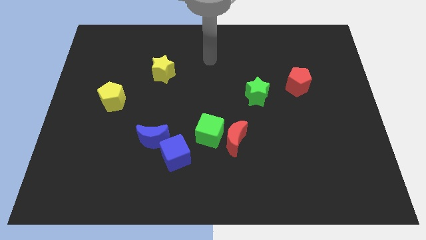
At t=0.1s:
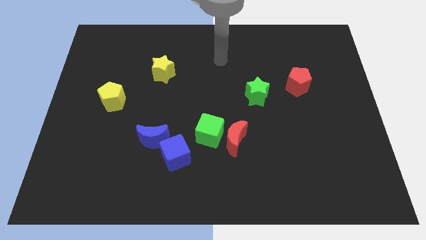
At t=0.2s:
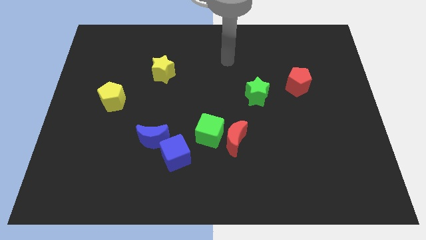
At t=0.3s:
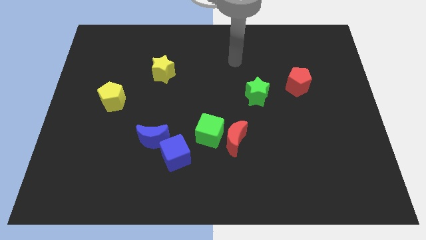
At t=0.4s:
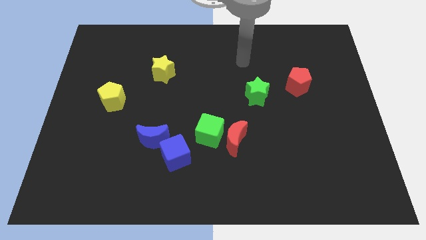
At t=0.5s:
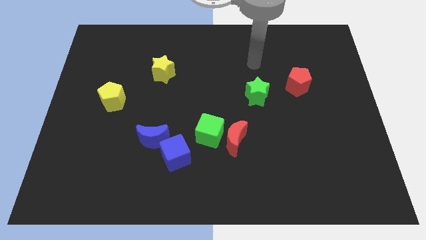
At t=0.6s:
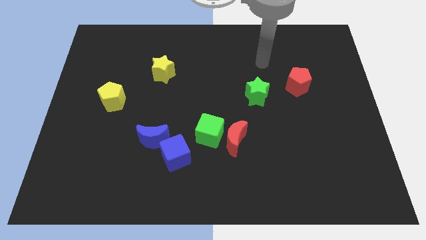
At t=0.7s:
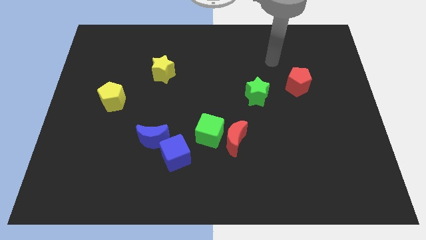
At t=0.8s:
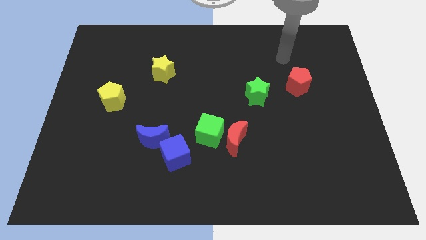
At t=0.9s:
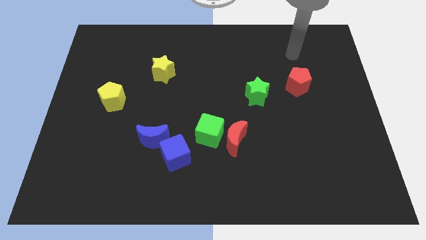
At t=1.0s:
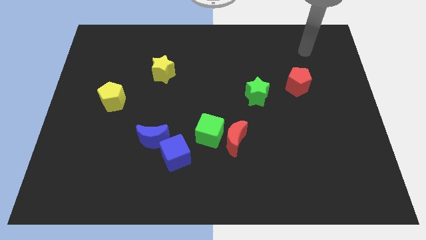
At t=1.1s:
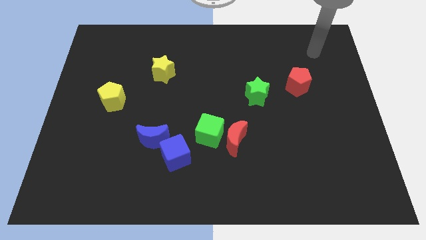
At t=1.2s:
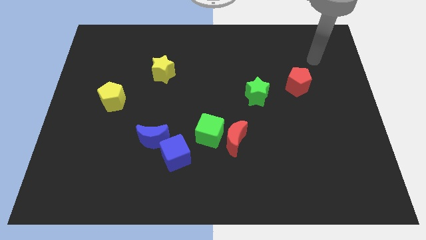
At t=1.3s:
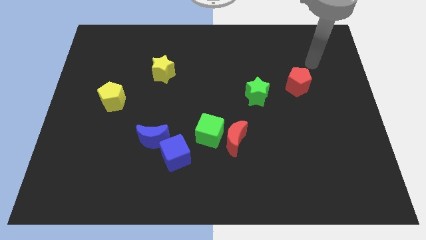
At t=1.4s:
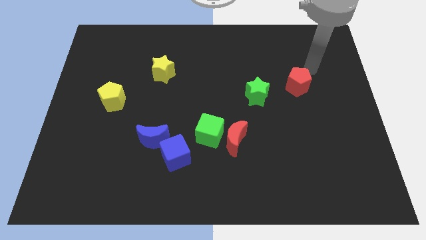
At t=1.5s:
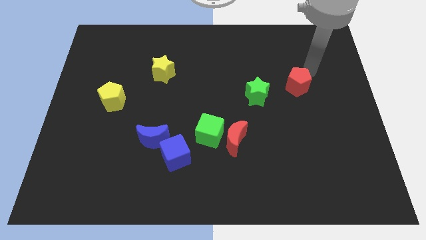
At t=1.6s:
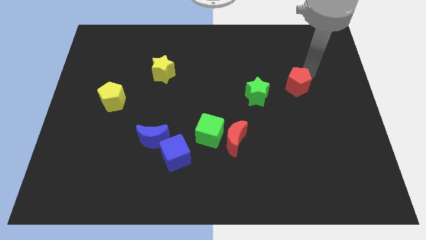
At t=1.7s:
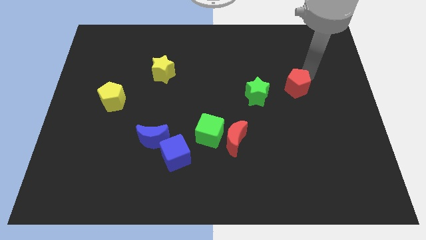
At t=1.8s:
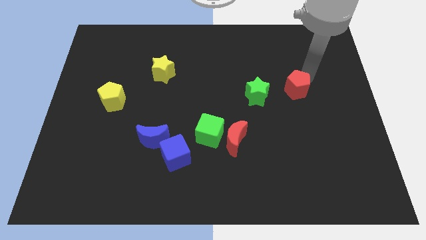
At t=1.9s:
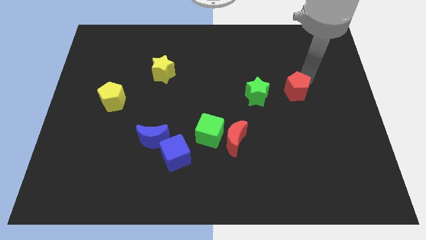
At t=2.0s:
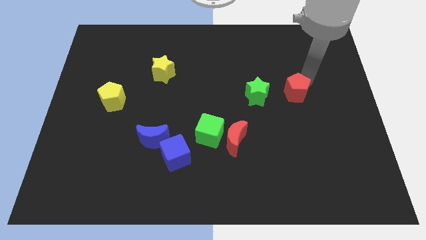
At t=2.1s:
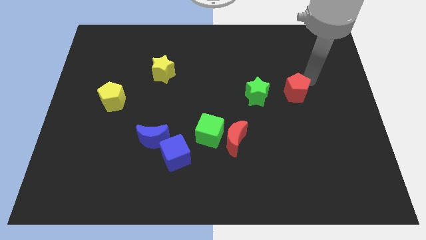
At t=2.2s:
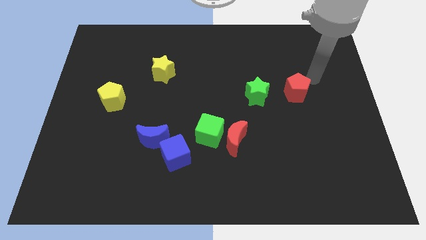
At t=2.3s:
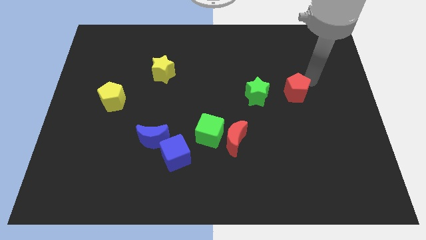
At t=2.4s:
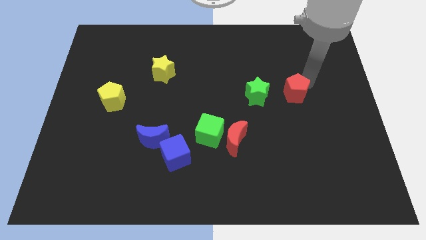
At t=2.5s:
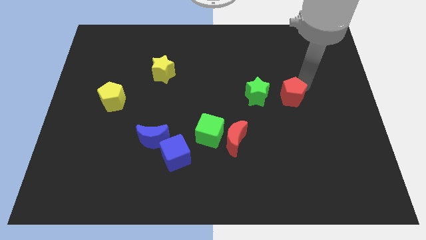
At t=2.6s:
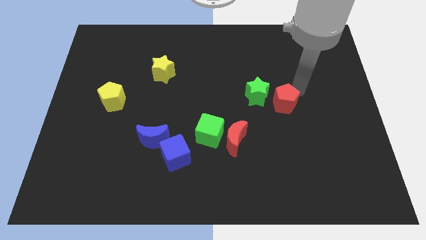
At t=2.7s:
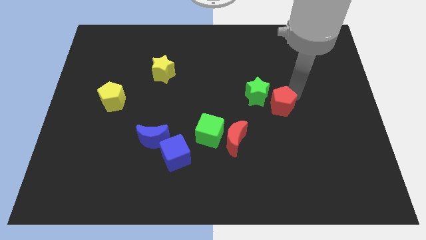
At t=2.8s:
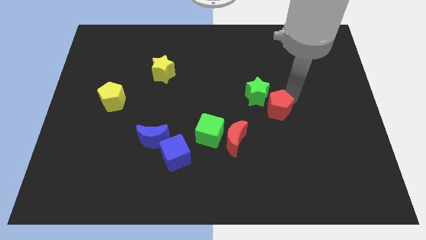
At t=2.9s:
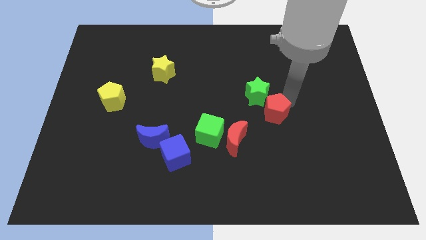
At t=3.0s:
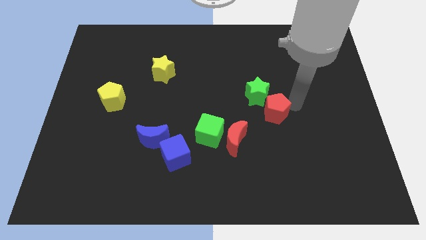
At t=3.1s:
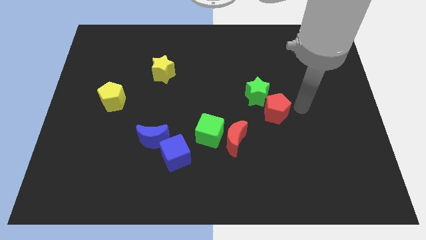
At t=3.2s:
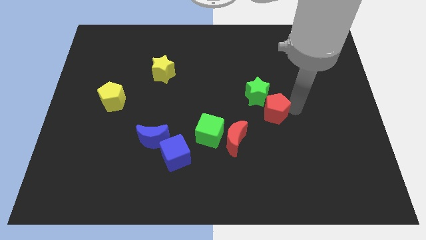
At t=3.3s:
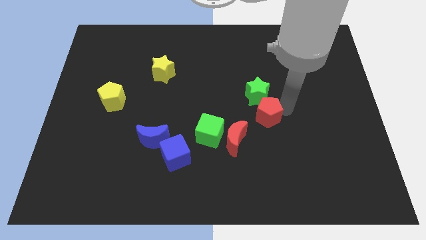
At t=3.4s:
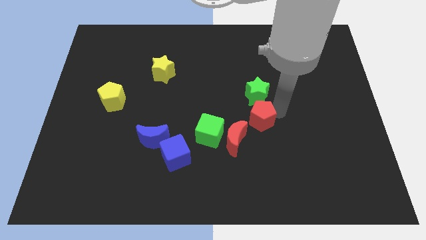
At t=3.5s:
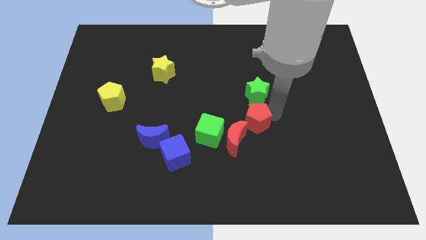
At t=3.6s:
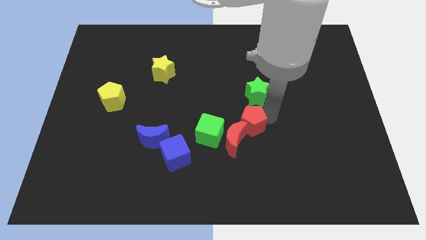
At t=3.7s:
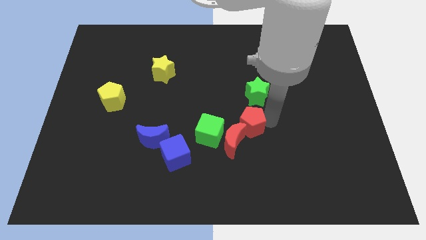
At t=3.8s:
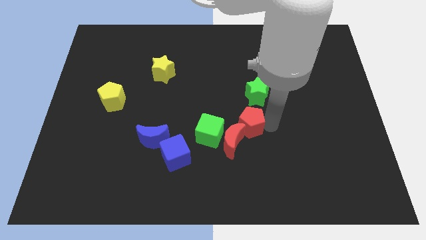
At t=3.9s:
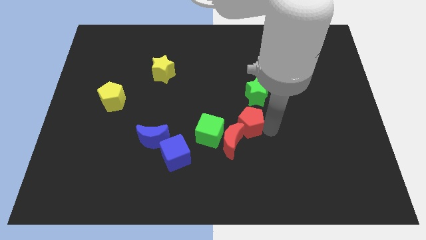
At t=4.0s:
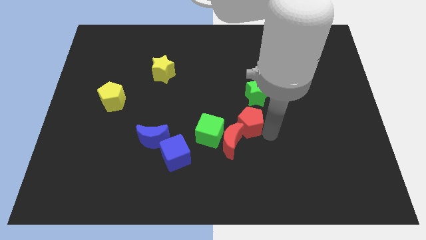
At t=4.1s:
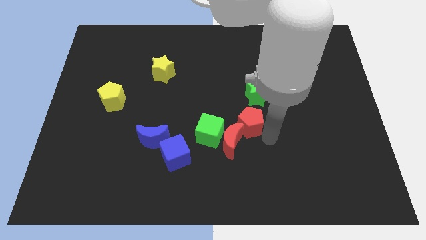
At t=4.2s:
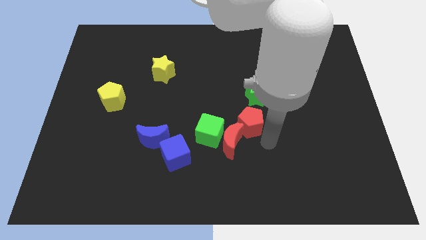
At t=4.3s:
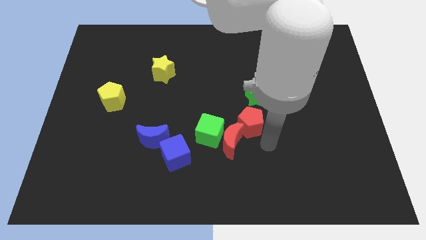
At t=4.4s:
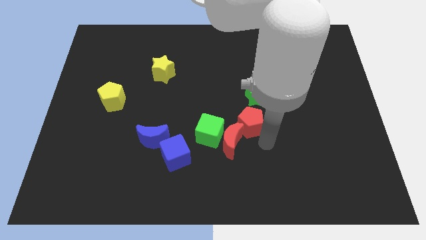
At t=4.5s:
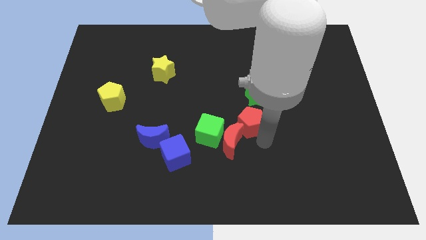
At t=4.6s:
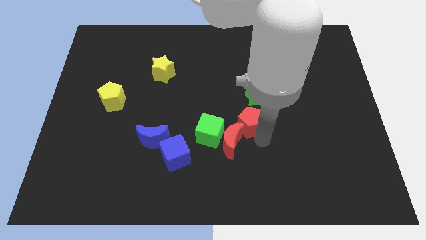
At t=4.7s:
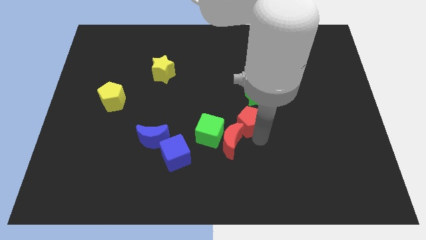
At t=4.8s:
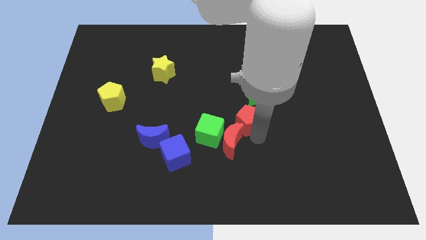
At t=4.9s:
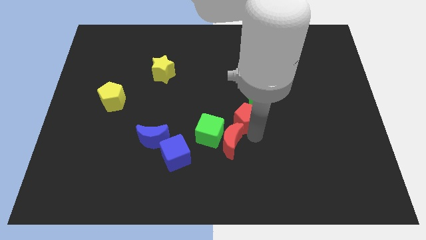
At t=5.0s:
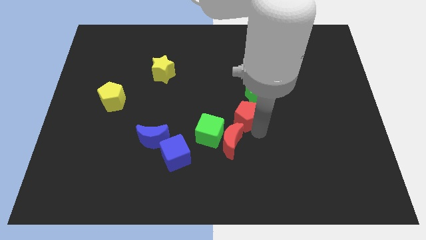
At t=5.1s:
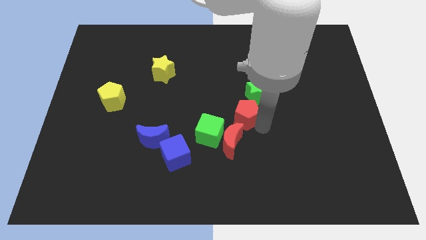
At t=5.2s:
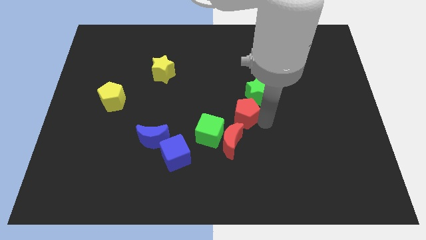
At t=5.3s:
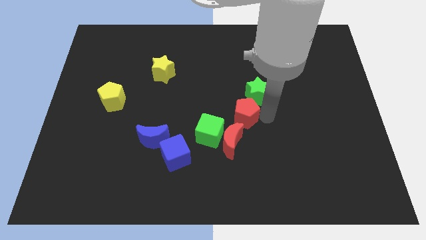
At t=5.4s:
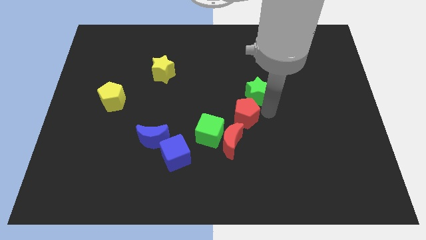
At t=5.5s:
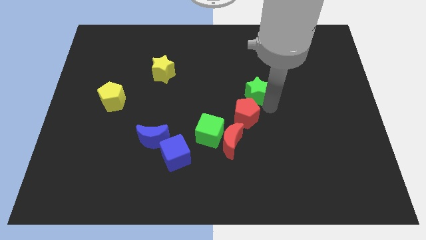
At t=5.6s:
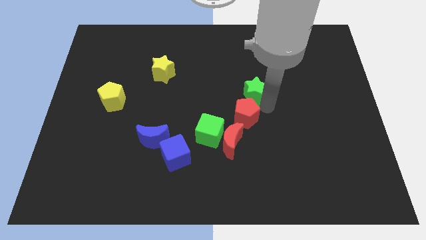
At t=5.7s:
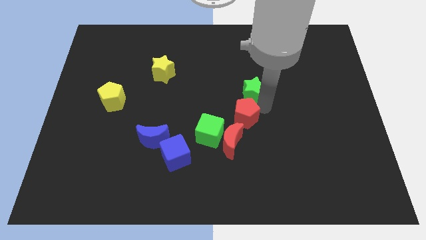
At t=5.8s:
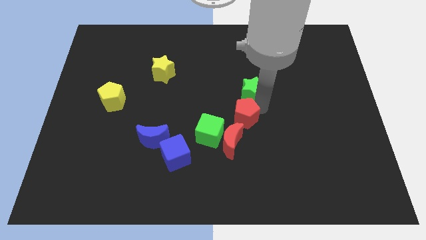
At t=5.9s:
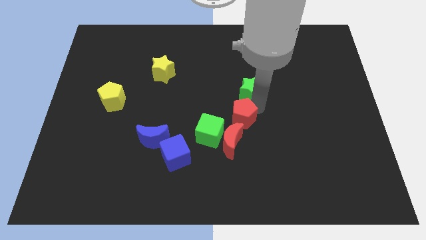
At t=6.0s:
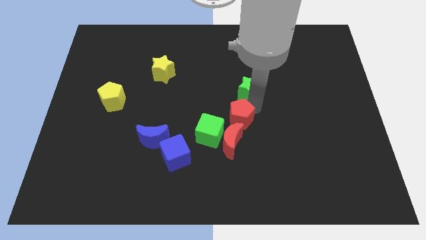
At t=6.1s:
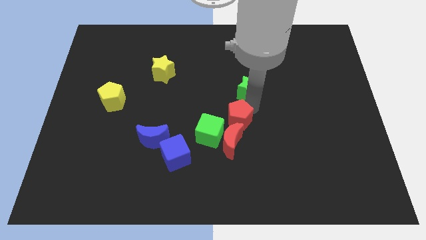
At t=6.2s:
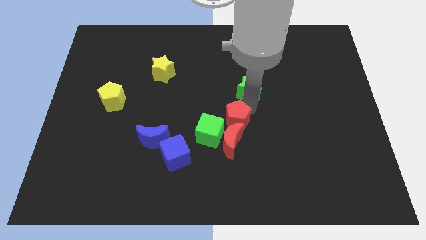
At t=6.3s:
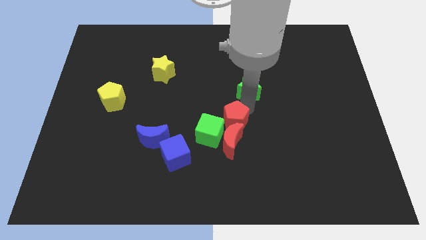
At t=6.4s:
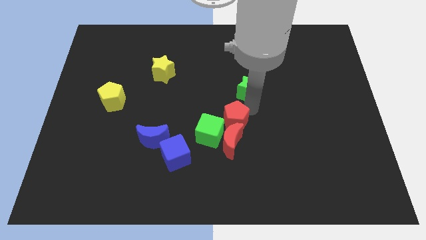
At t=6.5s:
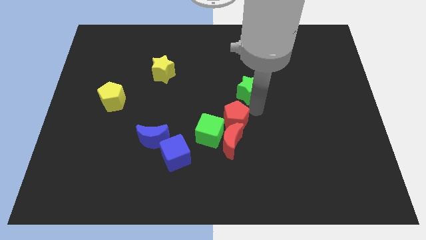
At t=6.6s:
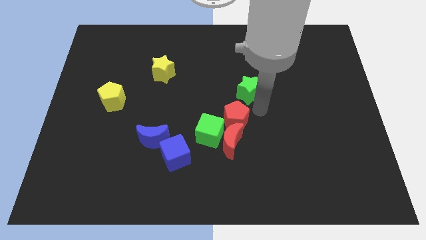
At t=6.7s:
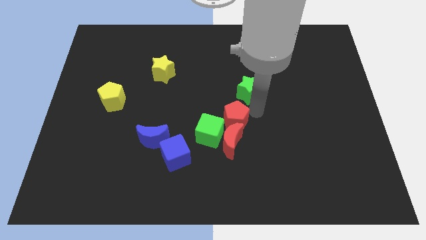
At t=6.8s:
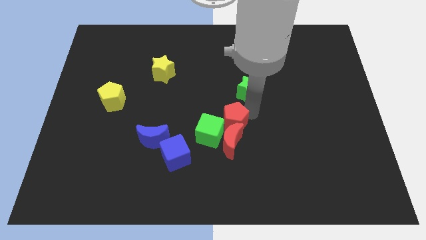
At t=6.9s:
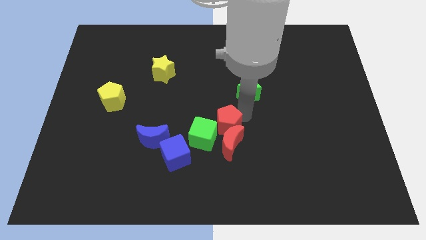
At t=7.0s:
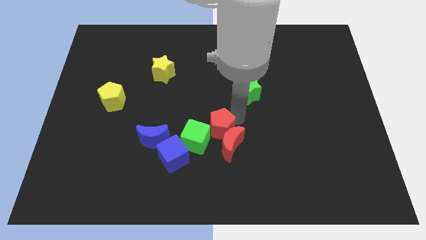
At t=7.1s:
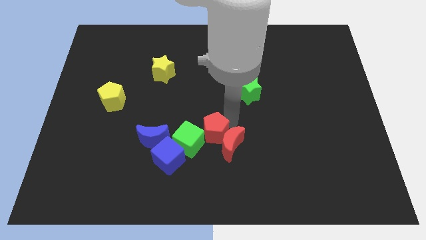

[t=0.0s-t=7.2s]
push the red pentagon to the green cube

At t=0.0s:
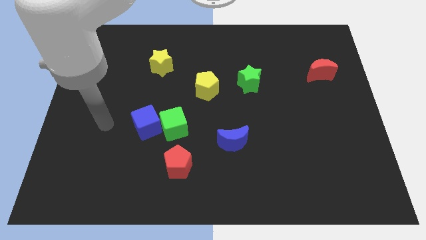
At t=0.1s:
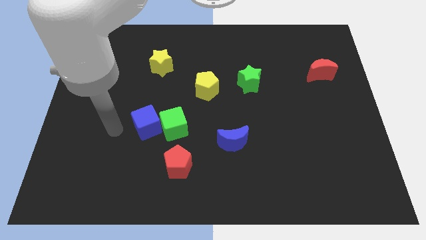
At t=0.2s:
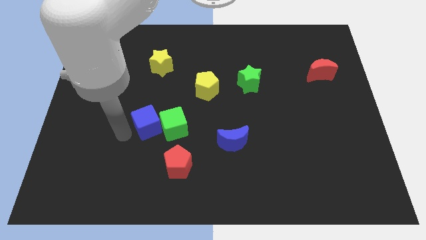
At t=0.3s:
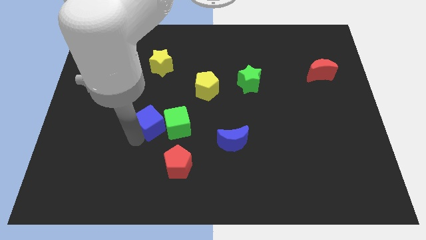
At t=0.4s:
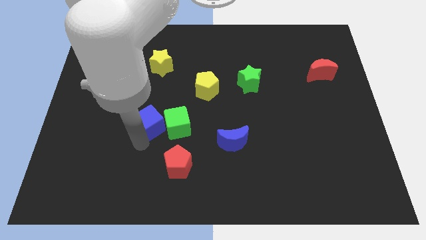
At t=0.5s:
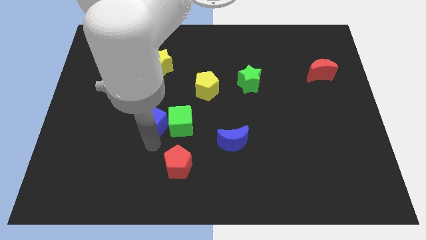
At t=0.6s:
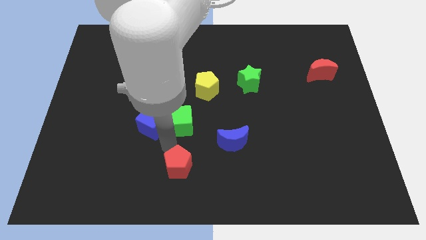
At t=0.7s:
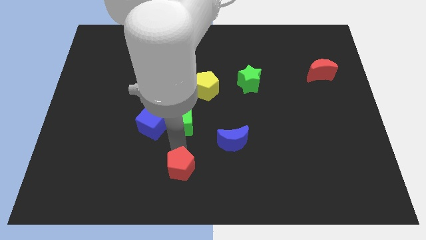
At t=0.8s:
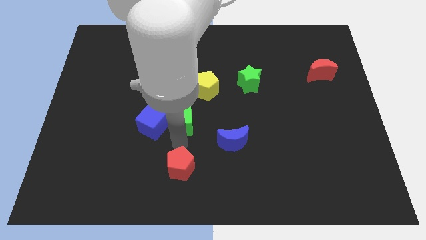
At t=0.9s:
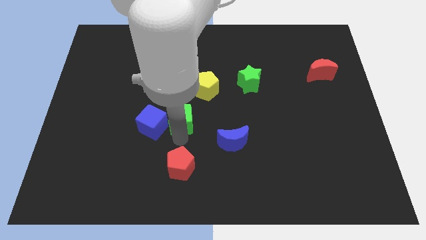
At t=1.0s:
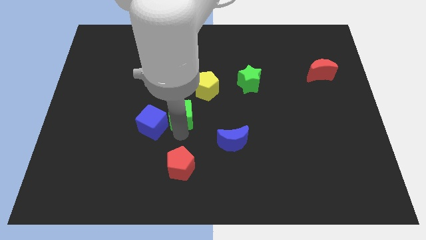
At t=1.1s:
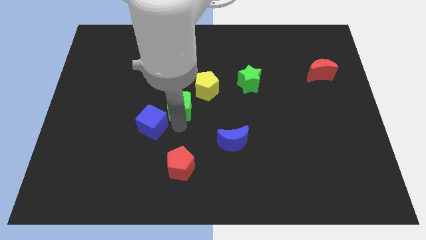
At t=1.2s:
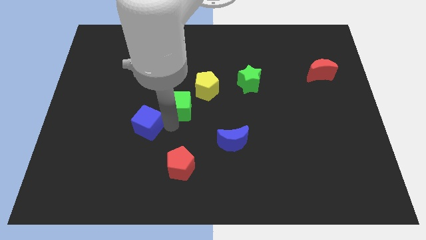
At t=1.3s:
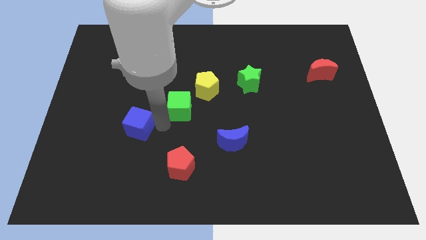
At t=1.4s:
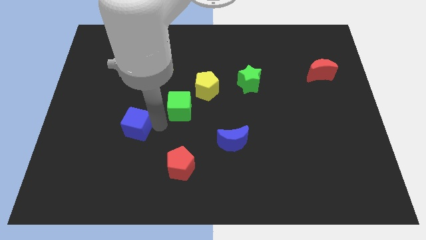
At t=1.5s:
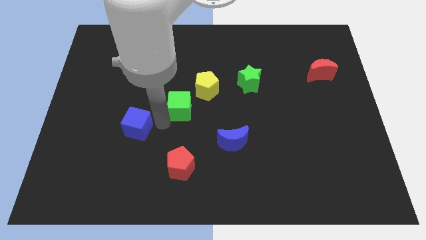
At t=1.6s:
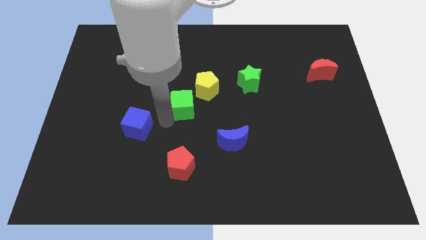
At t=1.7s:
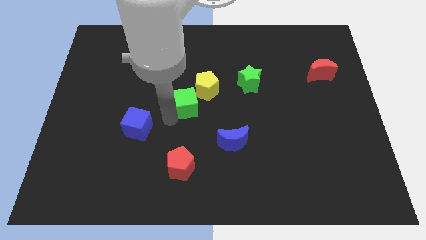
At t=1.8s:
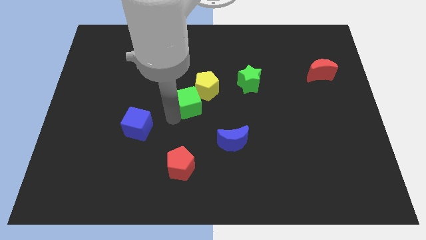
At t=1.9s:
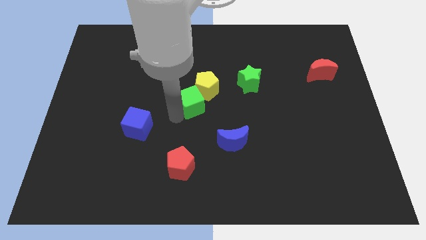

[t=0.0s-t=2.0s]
slide the green cube next to the yellow pentagon
